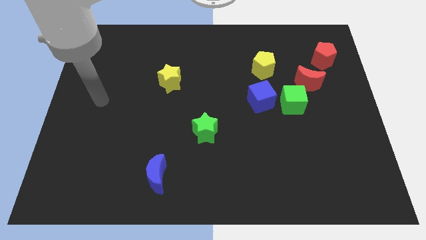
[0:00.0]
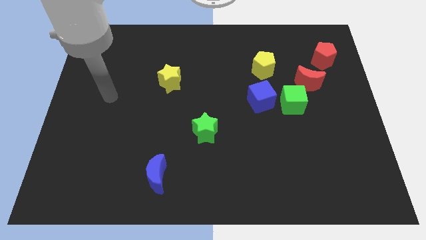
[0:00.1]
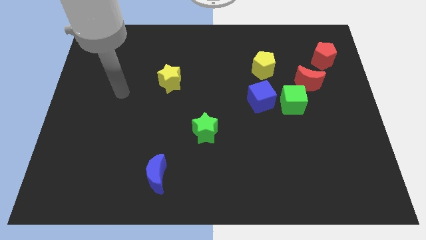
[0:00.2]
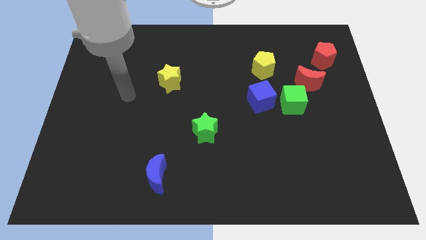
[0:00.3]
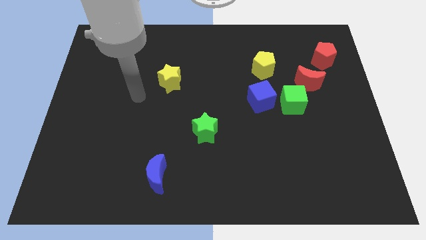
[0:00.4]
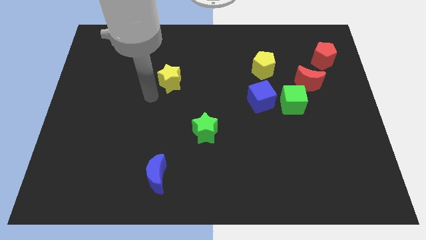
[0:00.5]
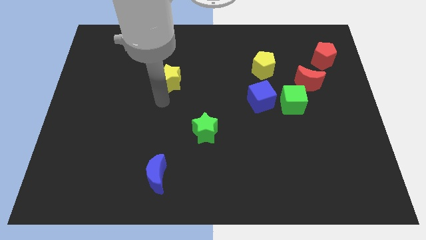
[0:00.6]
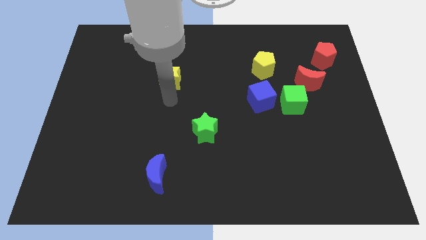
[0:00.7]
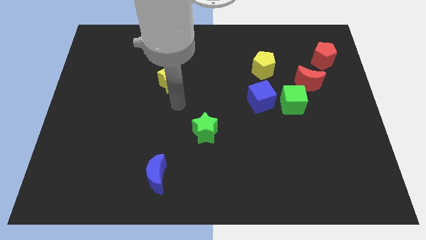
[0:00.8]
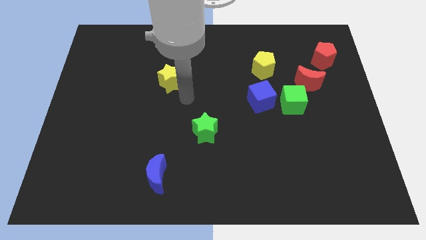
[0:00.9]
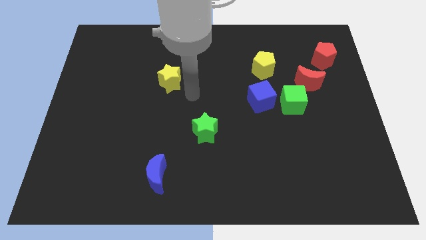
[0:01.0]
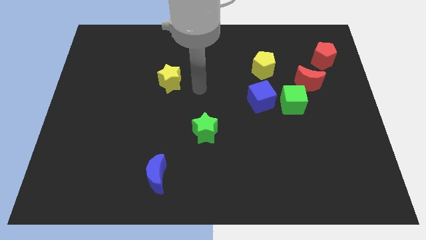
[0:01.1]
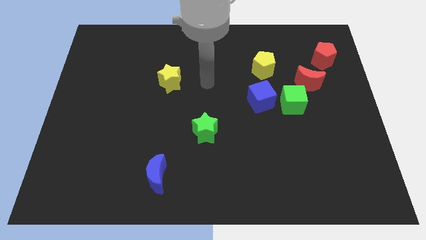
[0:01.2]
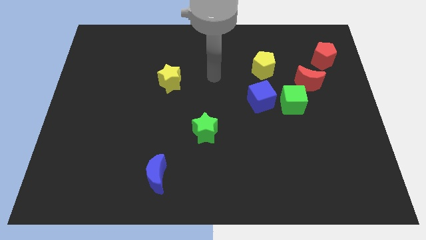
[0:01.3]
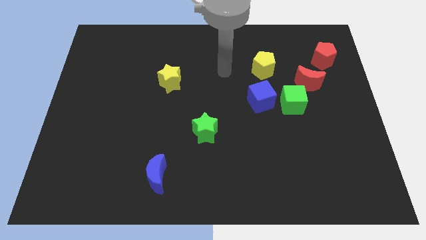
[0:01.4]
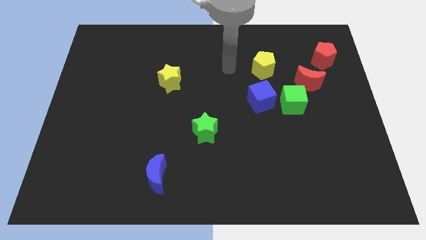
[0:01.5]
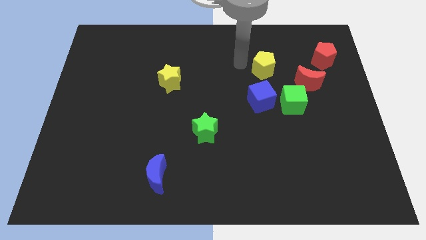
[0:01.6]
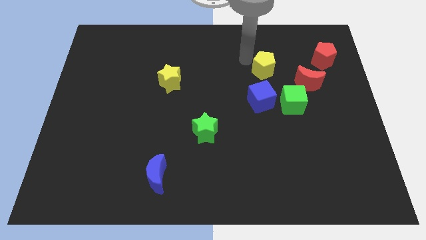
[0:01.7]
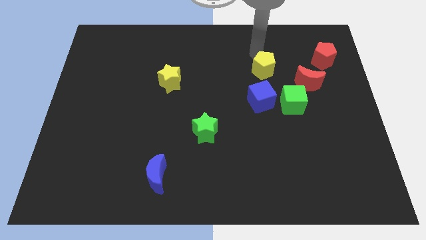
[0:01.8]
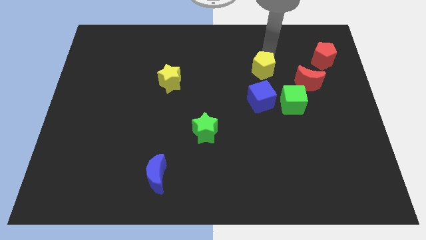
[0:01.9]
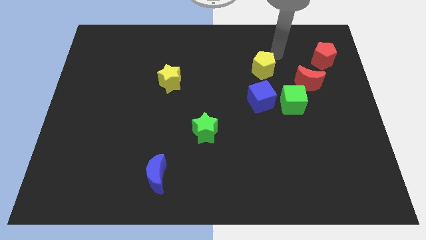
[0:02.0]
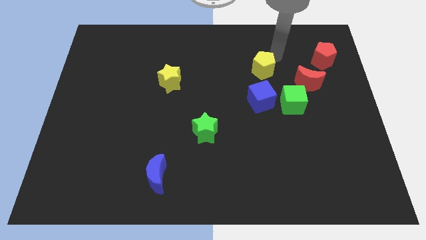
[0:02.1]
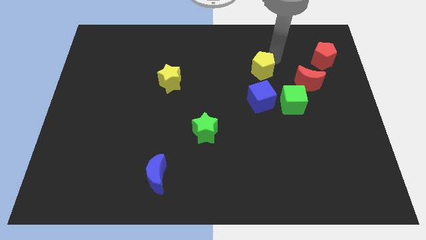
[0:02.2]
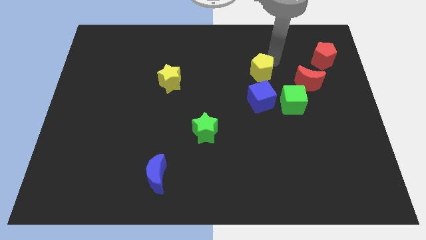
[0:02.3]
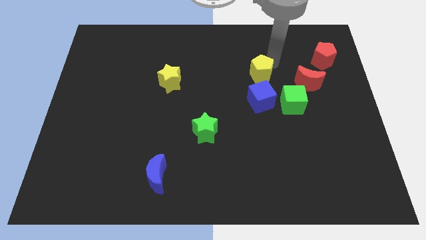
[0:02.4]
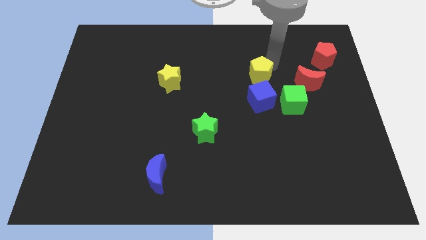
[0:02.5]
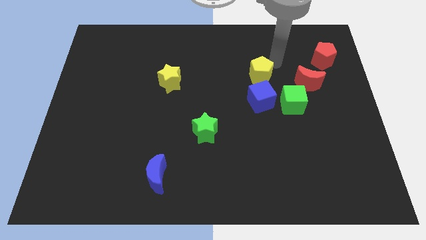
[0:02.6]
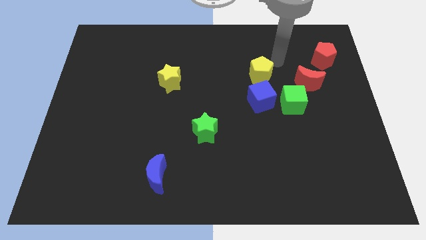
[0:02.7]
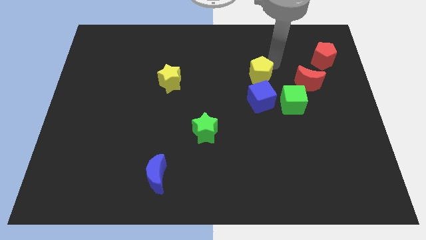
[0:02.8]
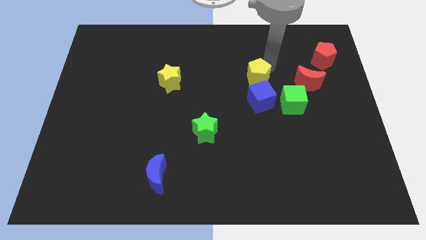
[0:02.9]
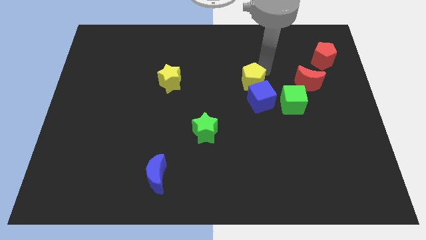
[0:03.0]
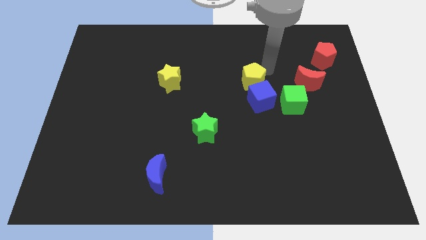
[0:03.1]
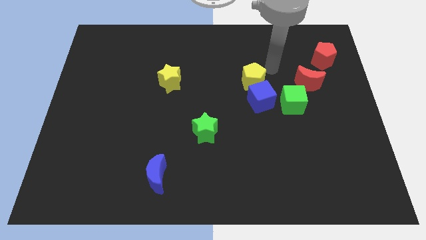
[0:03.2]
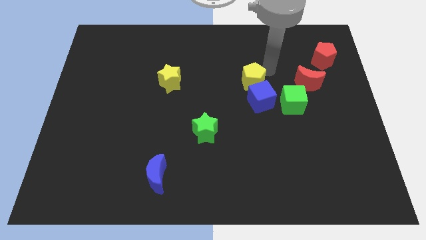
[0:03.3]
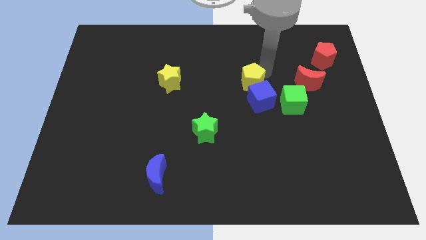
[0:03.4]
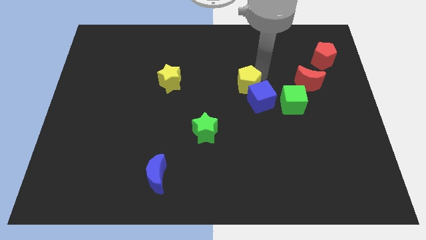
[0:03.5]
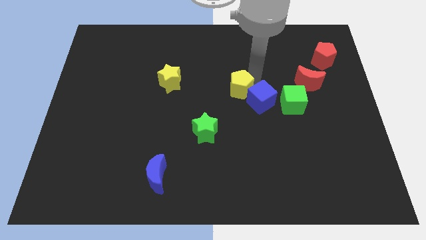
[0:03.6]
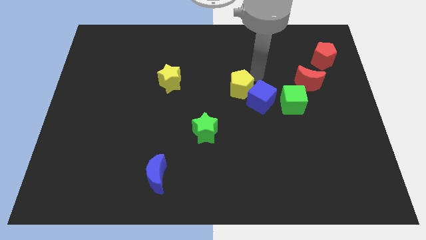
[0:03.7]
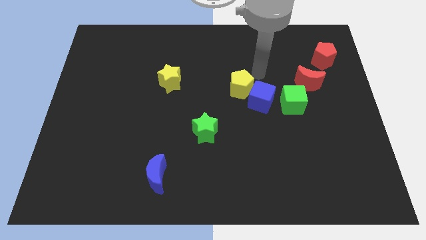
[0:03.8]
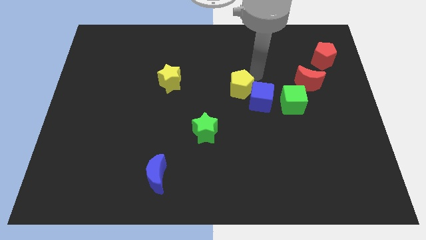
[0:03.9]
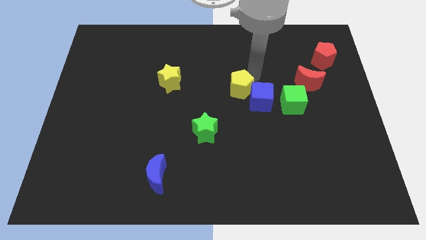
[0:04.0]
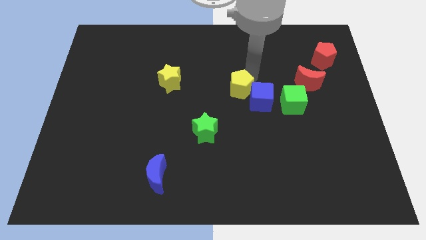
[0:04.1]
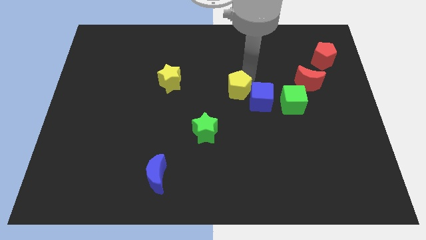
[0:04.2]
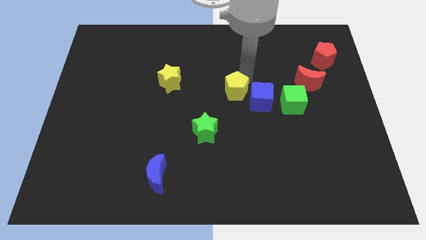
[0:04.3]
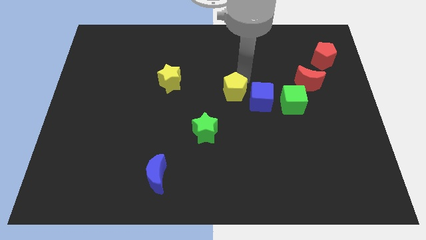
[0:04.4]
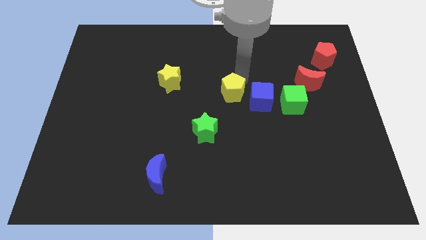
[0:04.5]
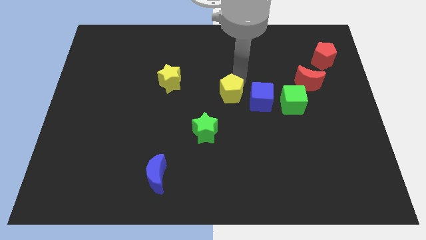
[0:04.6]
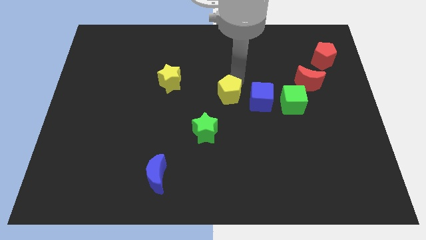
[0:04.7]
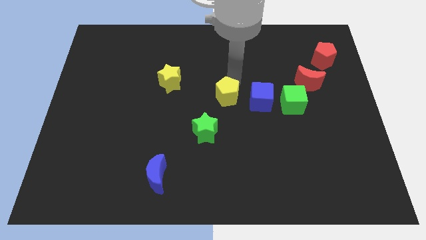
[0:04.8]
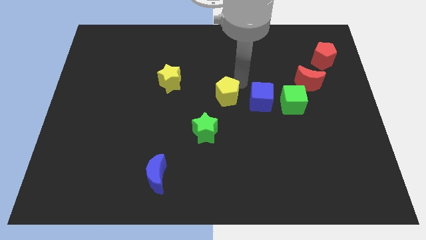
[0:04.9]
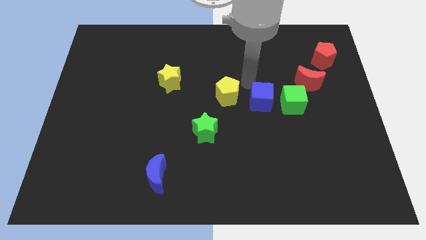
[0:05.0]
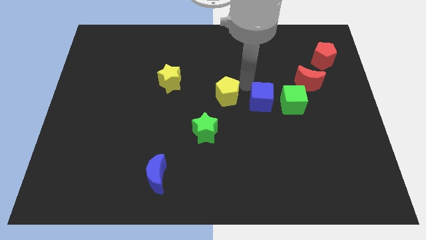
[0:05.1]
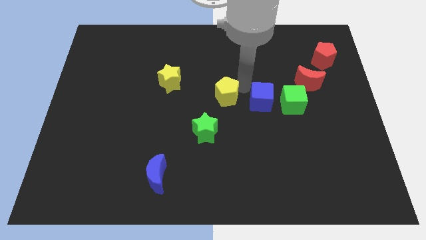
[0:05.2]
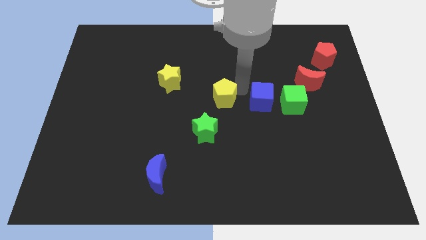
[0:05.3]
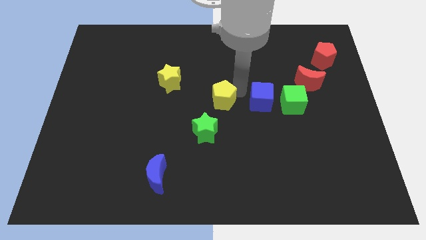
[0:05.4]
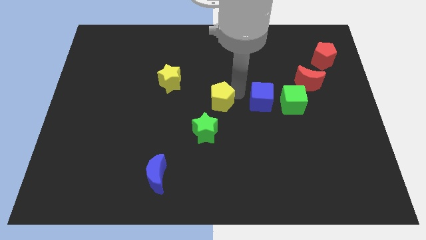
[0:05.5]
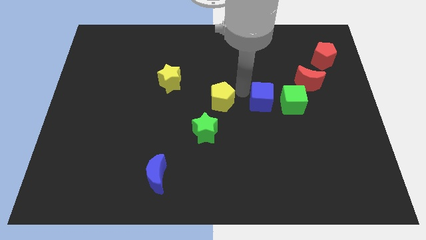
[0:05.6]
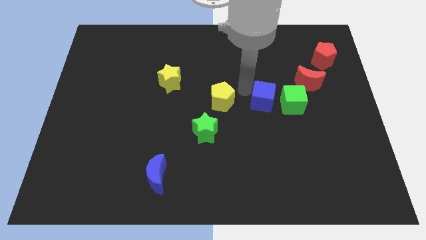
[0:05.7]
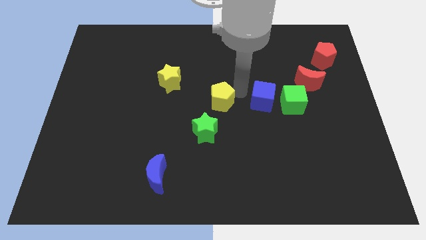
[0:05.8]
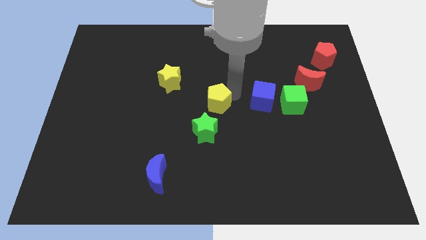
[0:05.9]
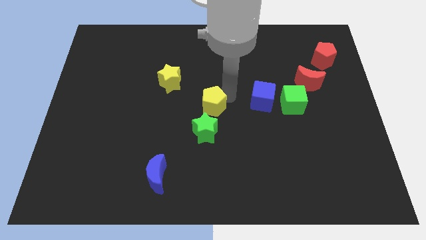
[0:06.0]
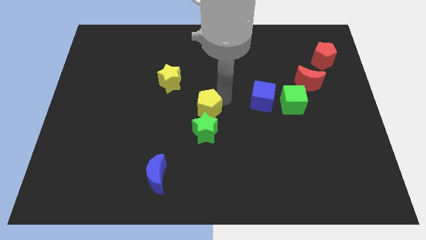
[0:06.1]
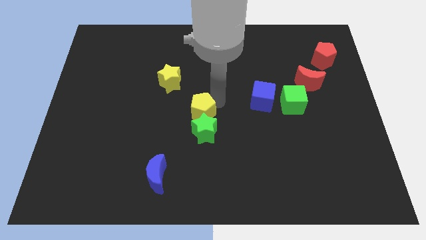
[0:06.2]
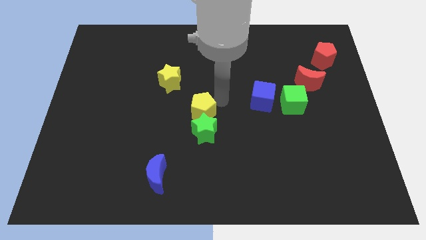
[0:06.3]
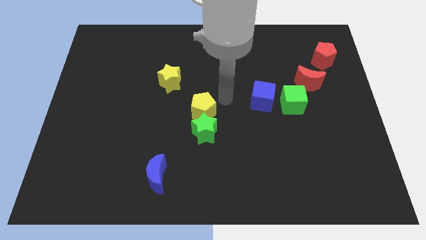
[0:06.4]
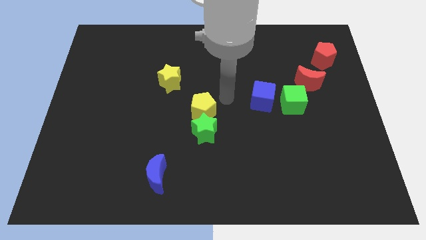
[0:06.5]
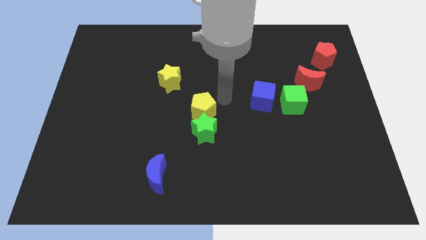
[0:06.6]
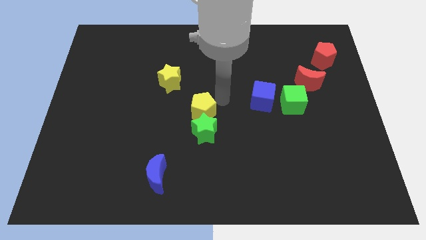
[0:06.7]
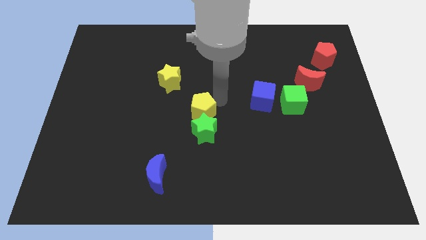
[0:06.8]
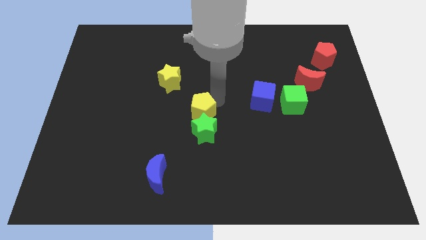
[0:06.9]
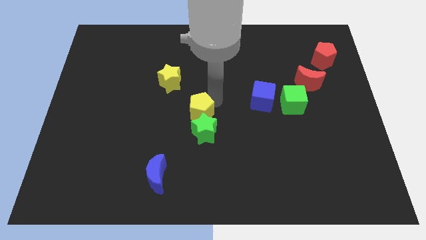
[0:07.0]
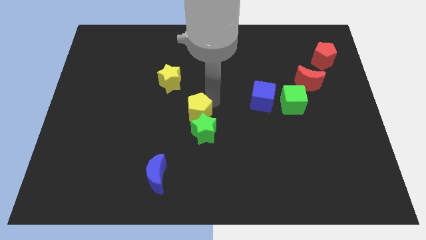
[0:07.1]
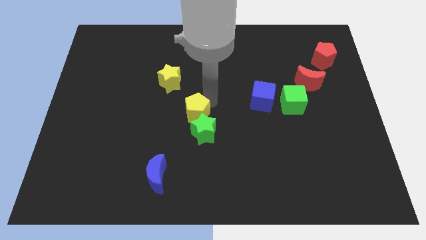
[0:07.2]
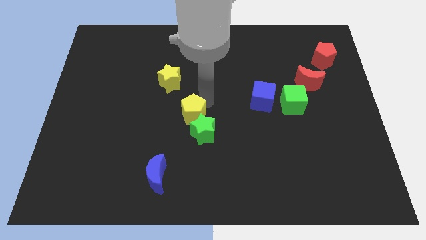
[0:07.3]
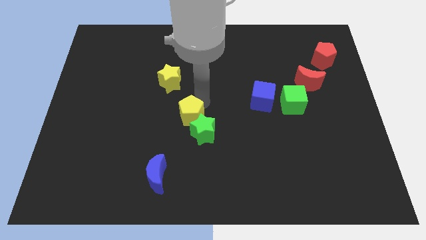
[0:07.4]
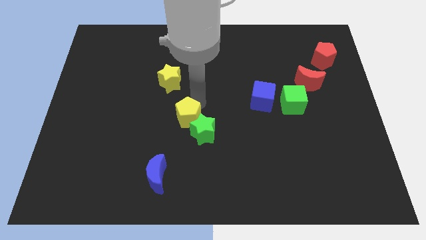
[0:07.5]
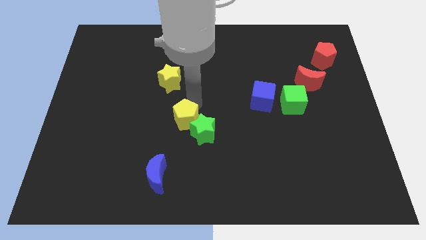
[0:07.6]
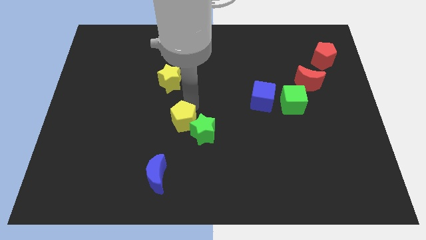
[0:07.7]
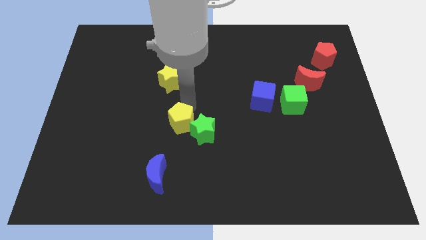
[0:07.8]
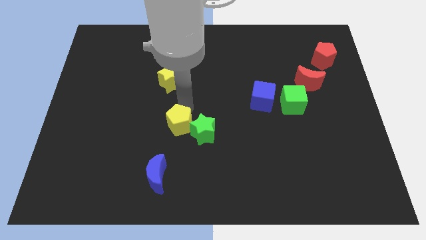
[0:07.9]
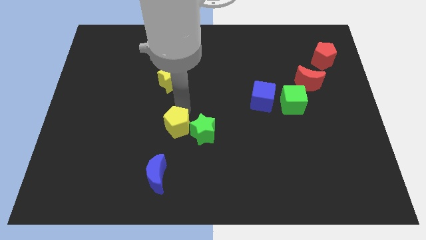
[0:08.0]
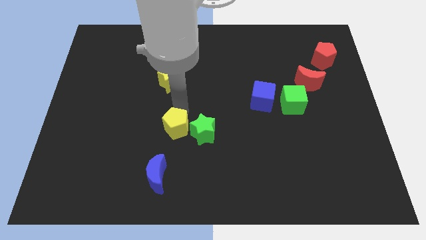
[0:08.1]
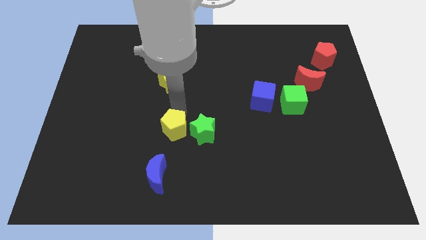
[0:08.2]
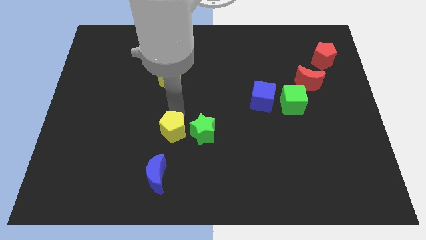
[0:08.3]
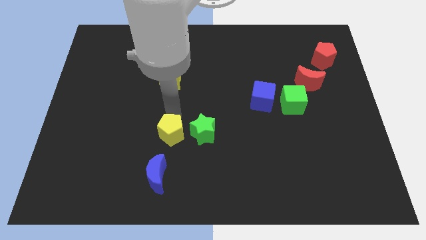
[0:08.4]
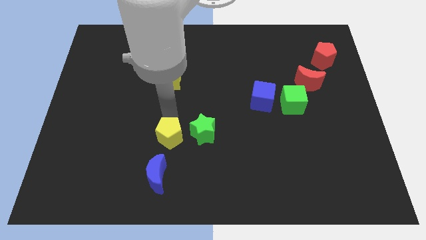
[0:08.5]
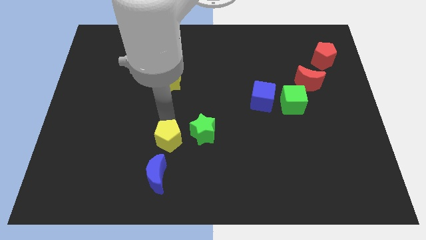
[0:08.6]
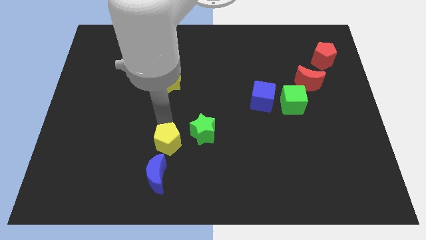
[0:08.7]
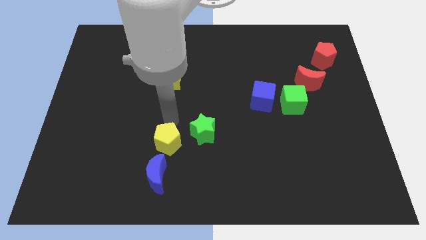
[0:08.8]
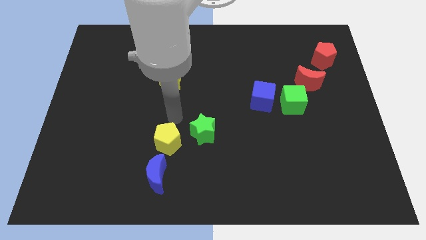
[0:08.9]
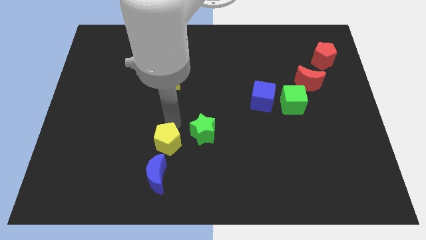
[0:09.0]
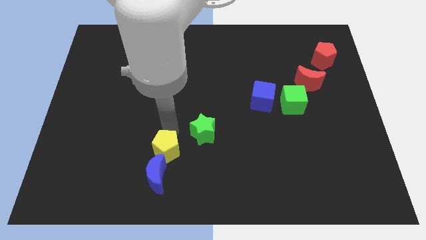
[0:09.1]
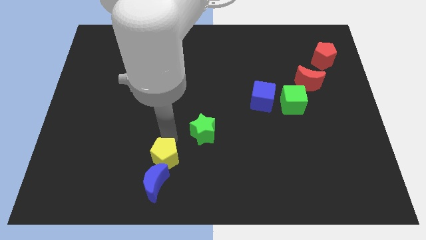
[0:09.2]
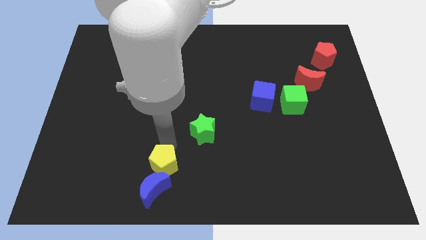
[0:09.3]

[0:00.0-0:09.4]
put the yellow pentagon to the blue moon
